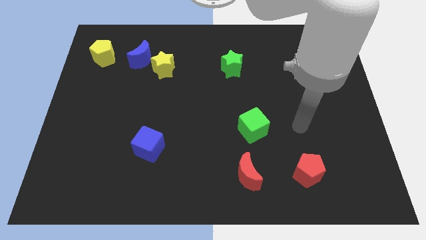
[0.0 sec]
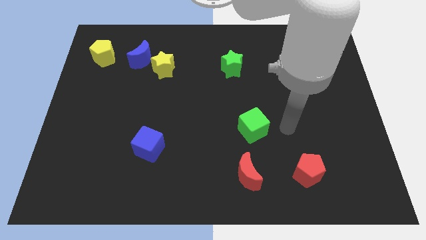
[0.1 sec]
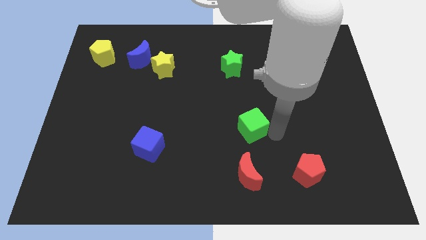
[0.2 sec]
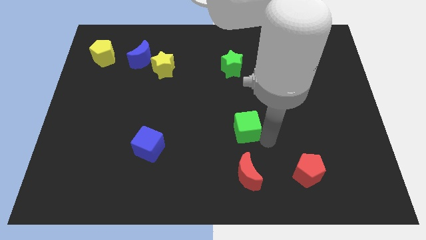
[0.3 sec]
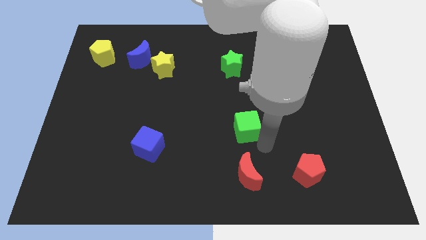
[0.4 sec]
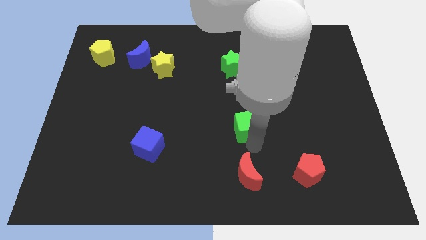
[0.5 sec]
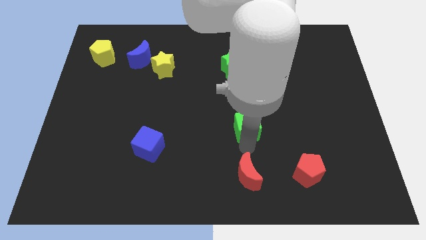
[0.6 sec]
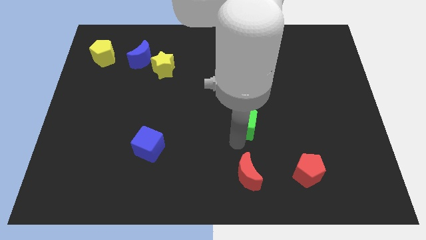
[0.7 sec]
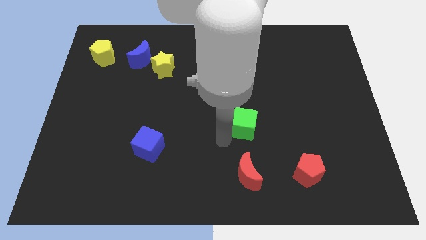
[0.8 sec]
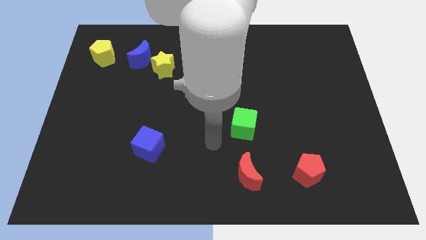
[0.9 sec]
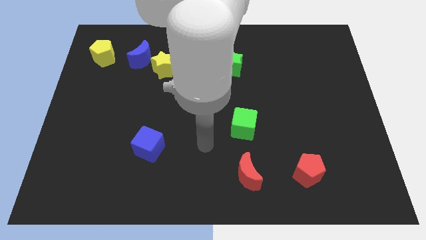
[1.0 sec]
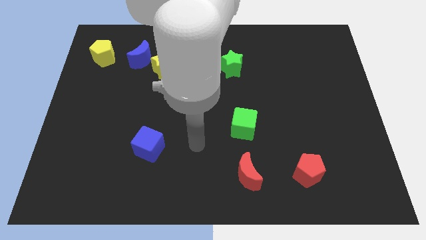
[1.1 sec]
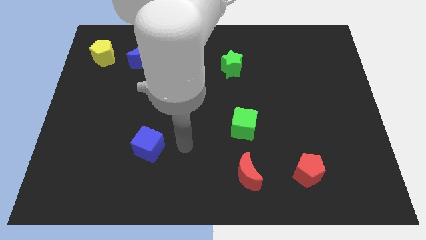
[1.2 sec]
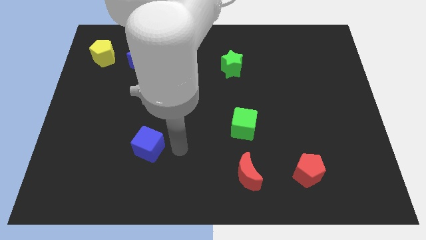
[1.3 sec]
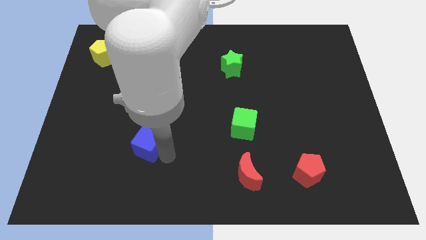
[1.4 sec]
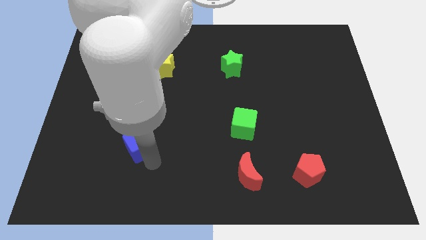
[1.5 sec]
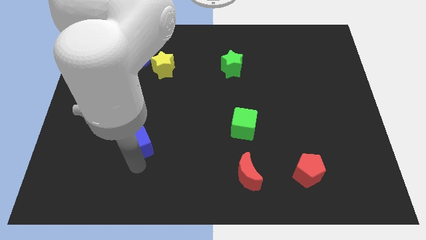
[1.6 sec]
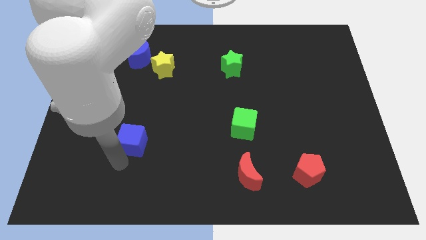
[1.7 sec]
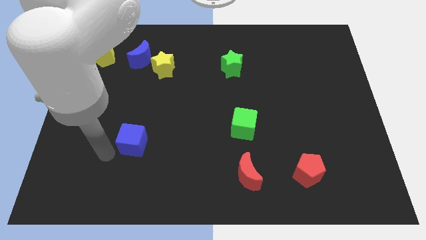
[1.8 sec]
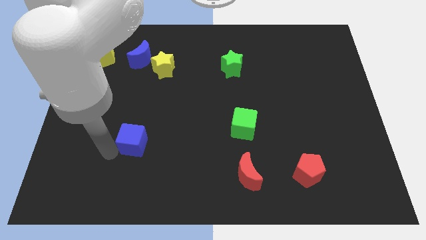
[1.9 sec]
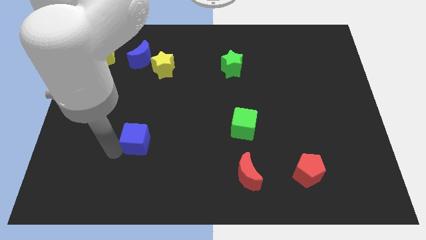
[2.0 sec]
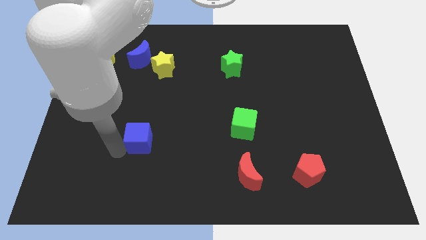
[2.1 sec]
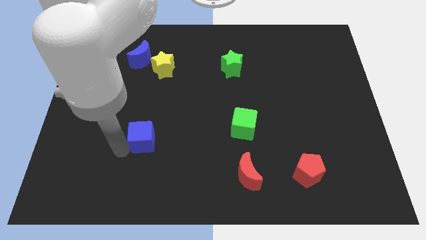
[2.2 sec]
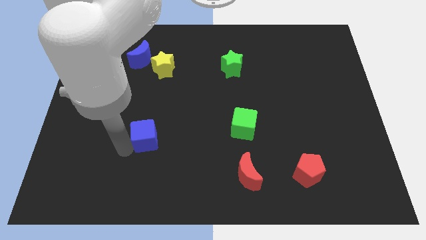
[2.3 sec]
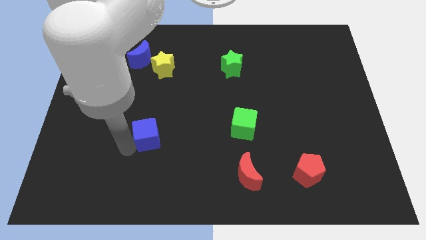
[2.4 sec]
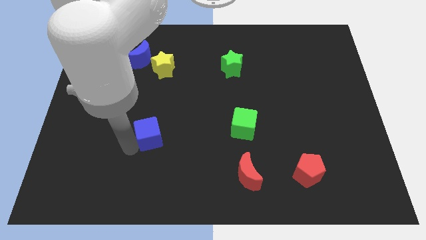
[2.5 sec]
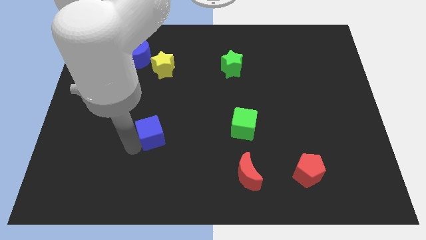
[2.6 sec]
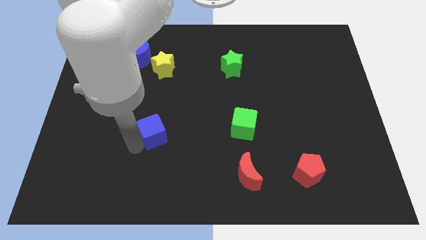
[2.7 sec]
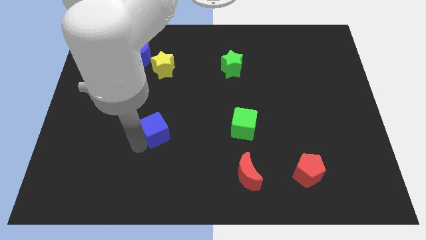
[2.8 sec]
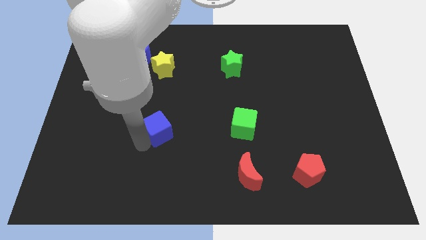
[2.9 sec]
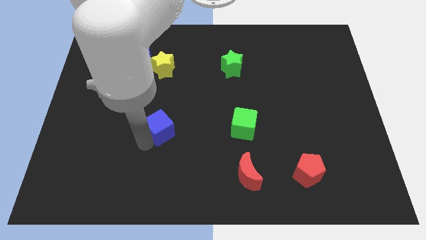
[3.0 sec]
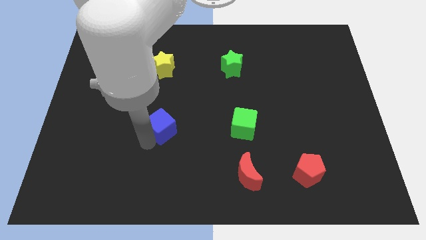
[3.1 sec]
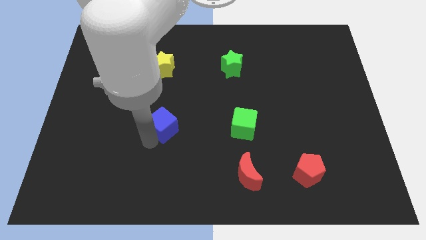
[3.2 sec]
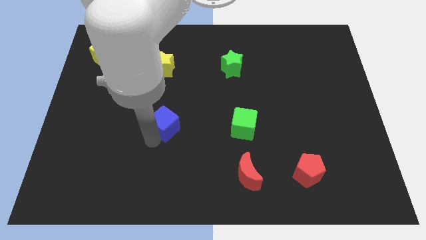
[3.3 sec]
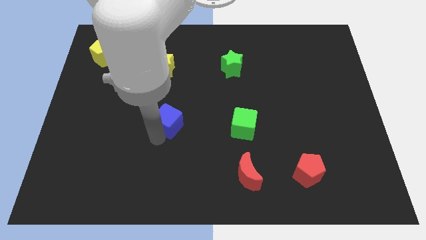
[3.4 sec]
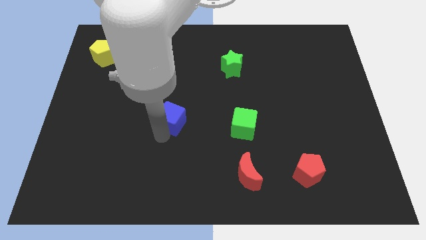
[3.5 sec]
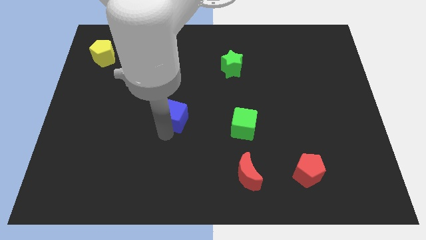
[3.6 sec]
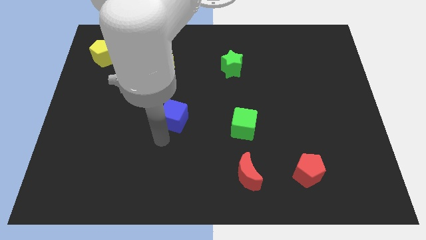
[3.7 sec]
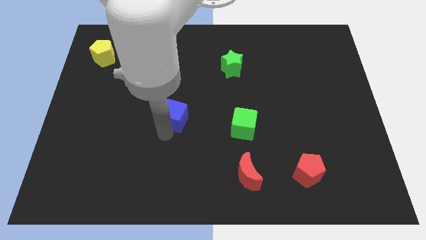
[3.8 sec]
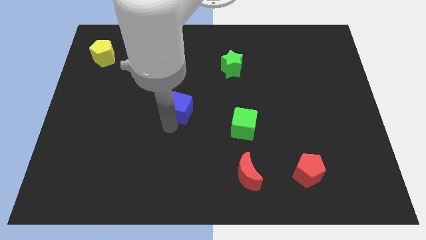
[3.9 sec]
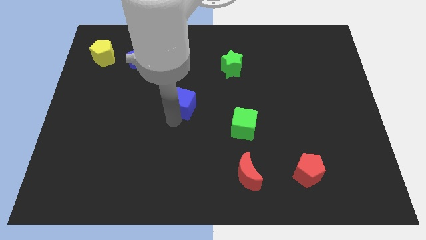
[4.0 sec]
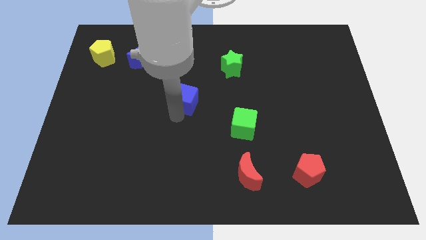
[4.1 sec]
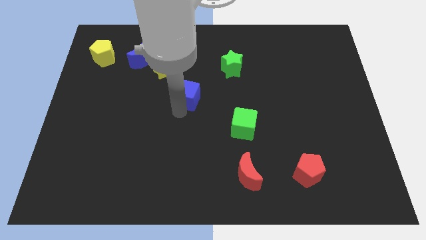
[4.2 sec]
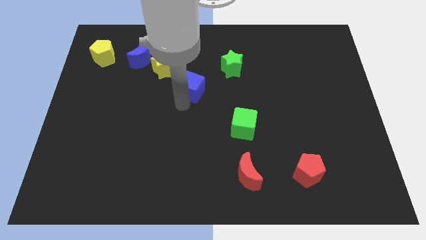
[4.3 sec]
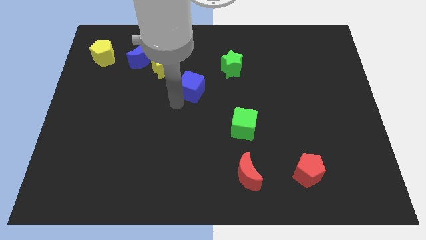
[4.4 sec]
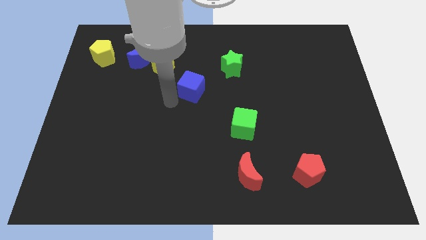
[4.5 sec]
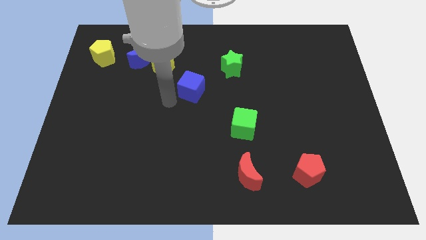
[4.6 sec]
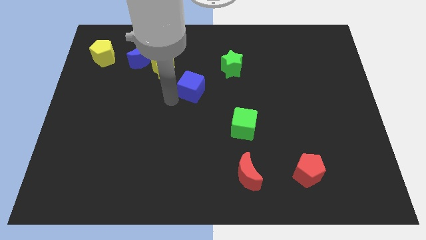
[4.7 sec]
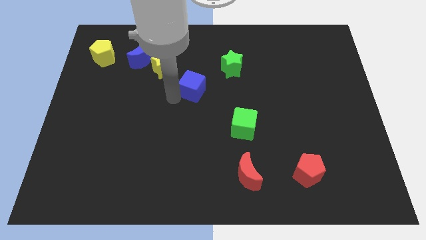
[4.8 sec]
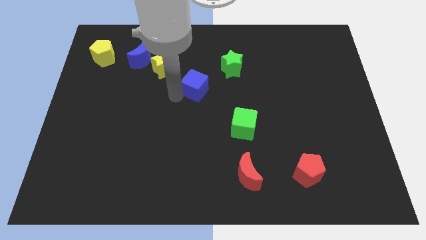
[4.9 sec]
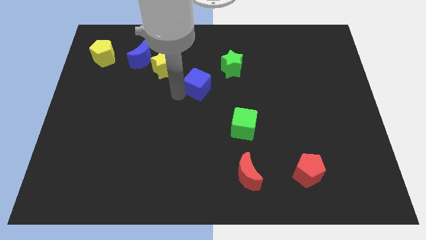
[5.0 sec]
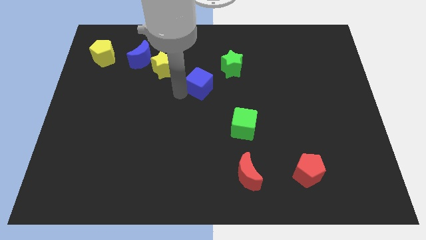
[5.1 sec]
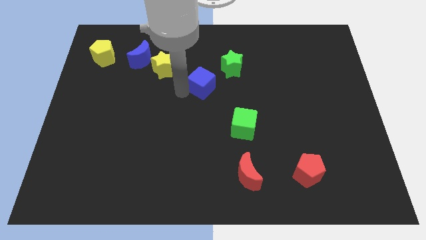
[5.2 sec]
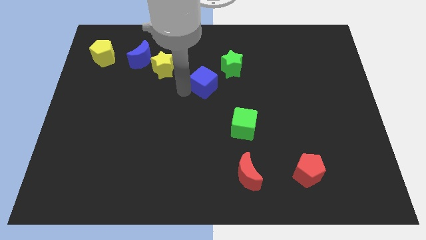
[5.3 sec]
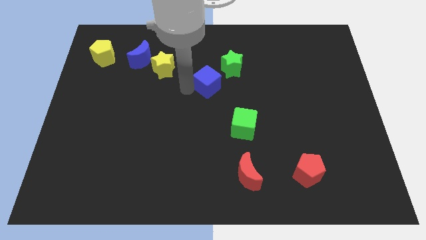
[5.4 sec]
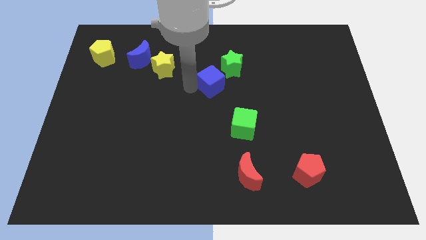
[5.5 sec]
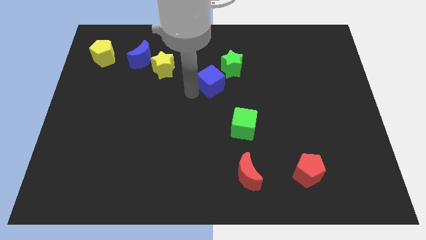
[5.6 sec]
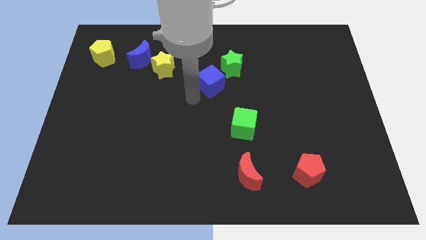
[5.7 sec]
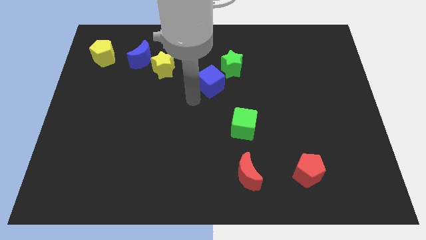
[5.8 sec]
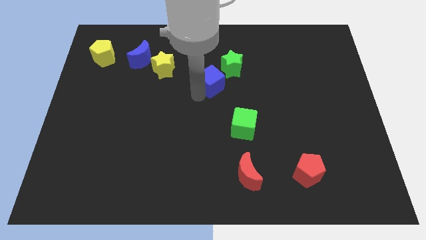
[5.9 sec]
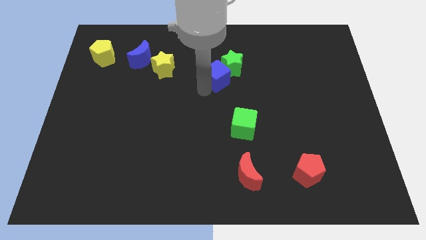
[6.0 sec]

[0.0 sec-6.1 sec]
move the blue cube towards the green star

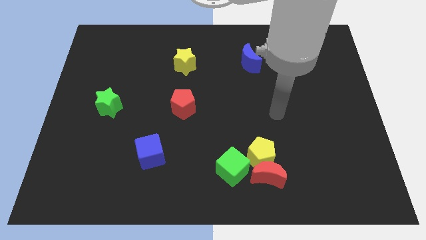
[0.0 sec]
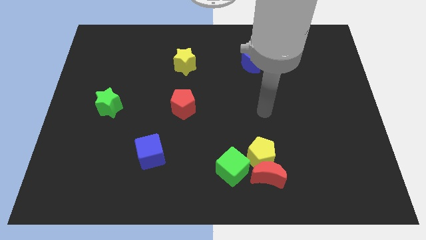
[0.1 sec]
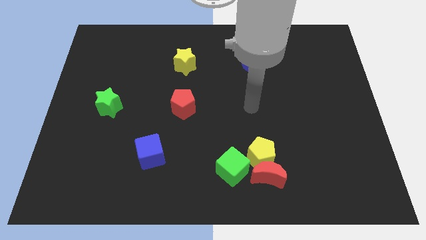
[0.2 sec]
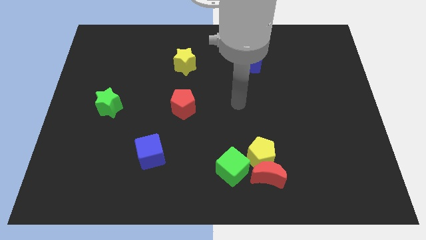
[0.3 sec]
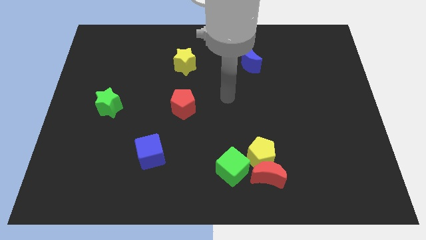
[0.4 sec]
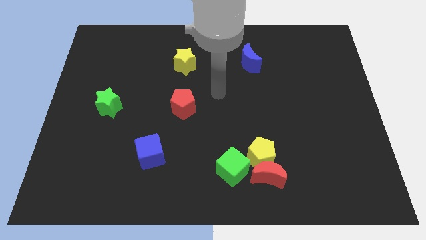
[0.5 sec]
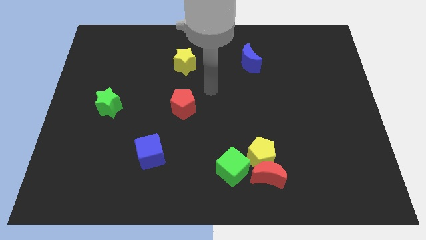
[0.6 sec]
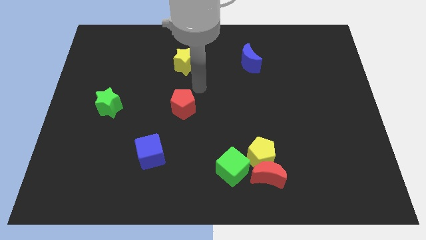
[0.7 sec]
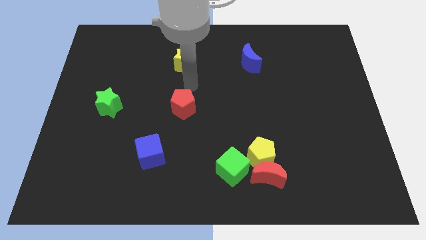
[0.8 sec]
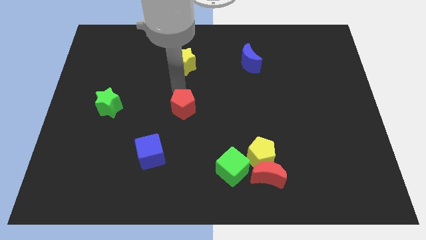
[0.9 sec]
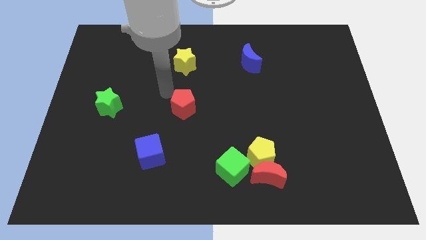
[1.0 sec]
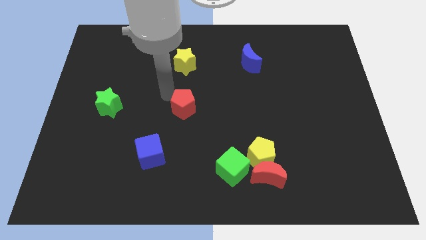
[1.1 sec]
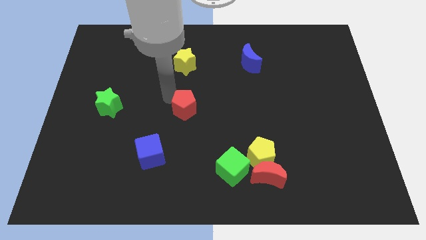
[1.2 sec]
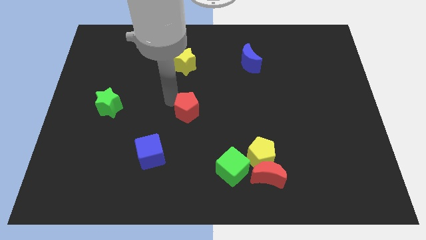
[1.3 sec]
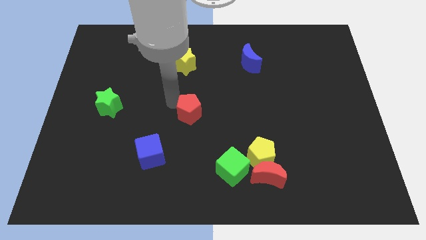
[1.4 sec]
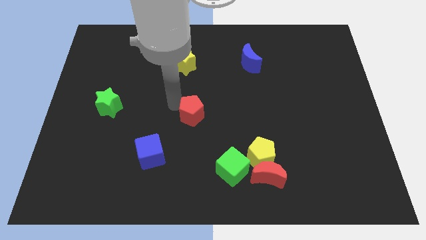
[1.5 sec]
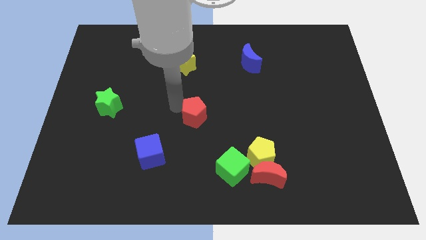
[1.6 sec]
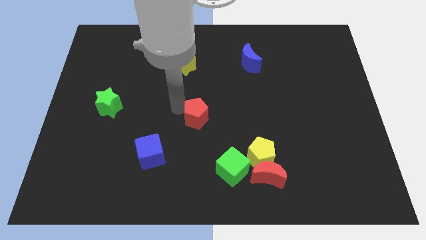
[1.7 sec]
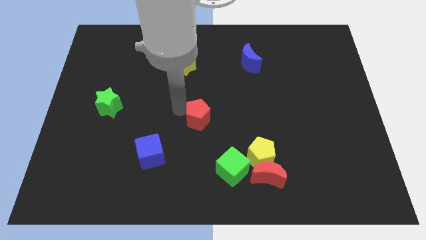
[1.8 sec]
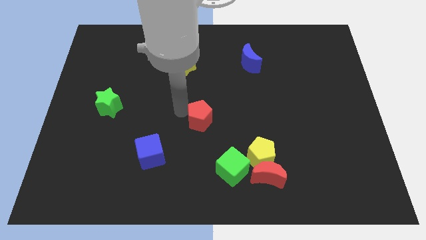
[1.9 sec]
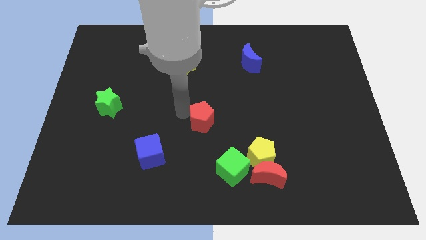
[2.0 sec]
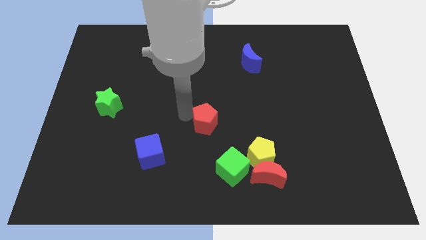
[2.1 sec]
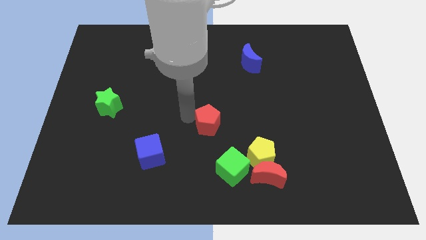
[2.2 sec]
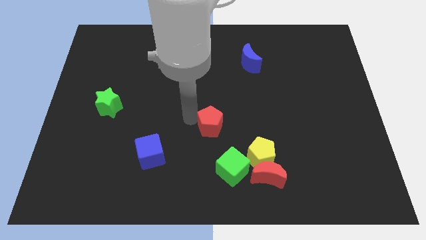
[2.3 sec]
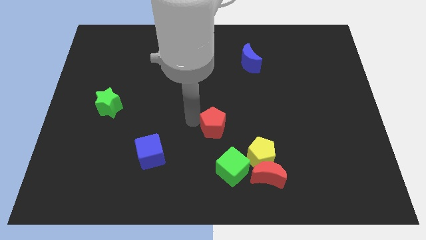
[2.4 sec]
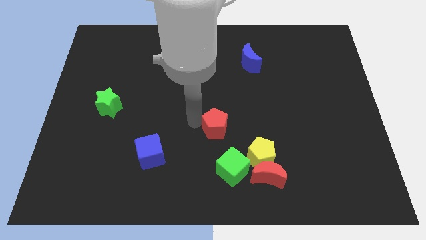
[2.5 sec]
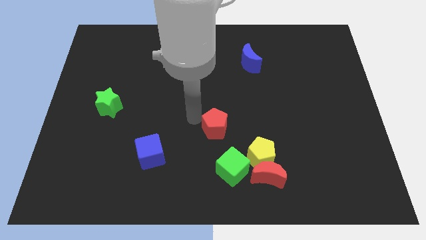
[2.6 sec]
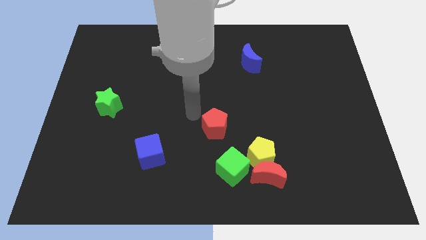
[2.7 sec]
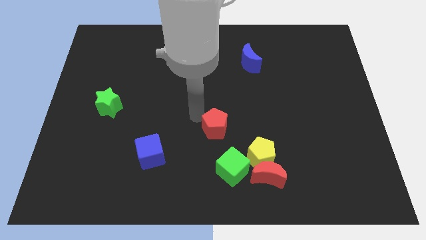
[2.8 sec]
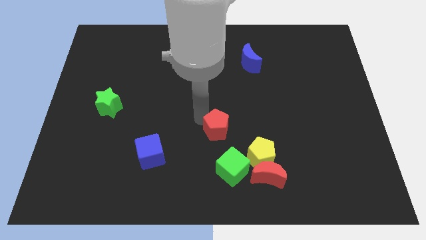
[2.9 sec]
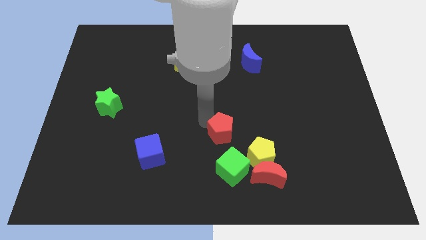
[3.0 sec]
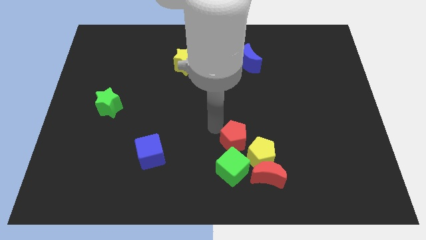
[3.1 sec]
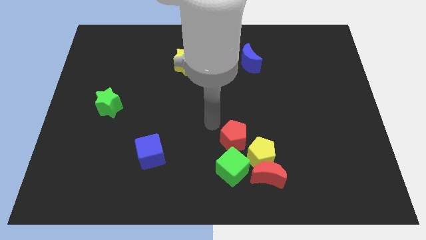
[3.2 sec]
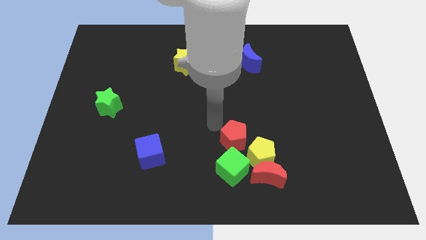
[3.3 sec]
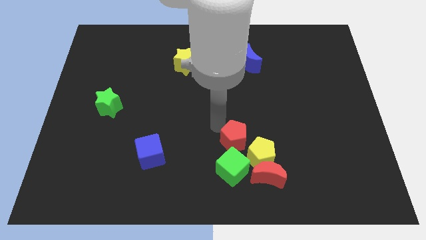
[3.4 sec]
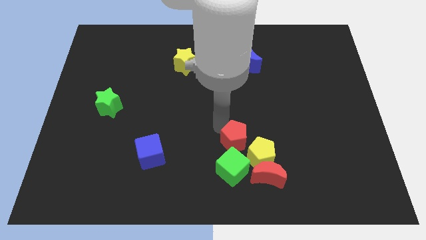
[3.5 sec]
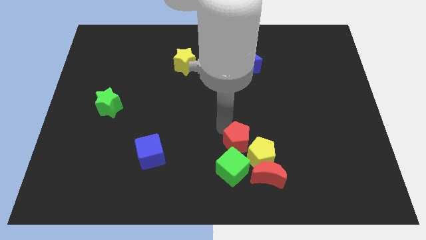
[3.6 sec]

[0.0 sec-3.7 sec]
slide the red pentagon towards the yellow pentagon
